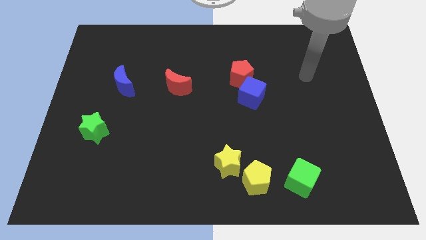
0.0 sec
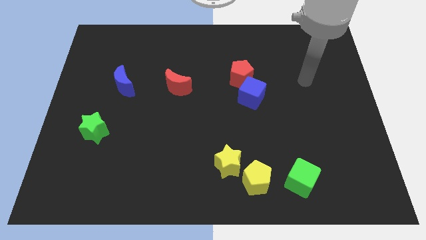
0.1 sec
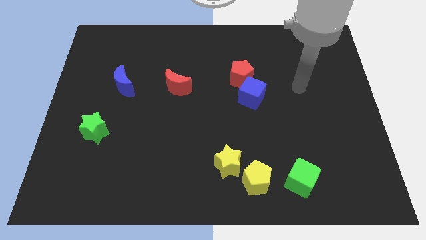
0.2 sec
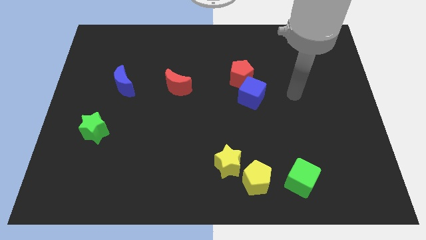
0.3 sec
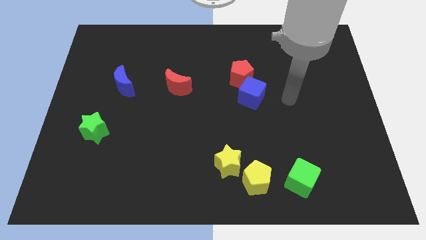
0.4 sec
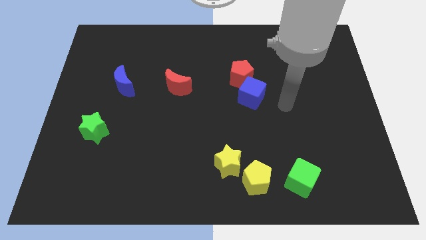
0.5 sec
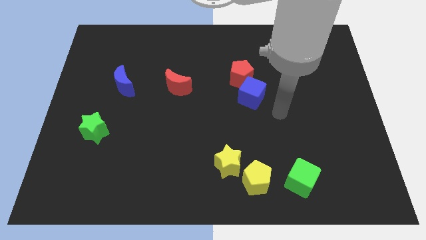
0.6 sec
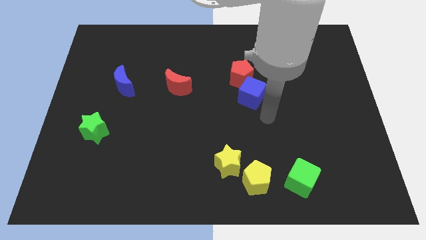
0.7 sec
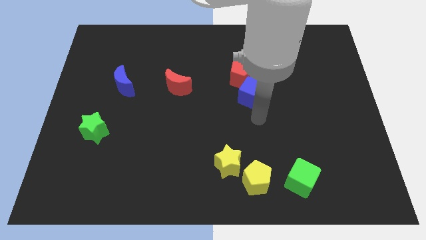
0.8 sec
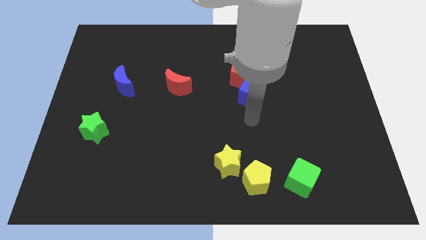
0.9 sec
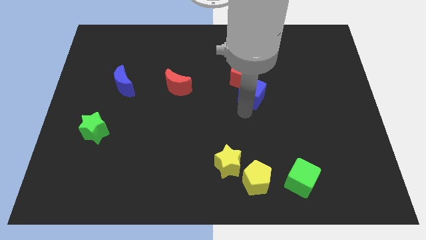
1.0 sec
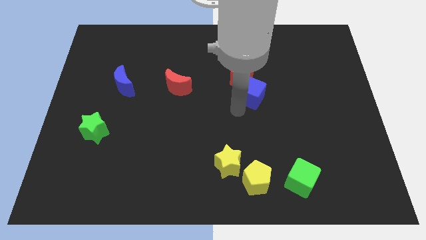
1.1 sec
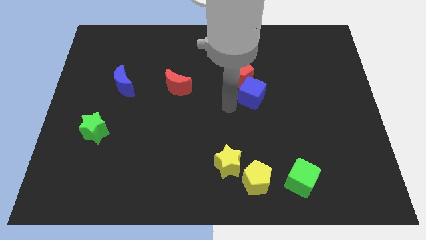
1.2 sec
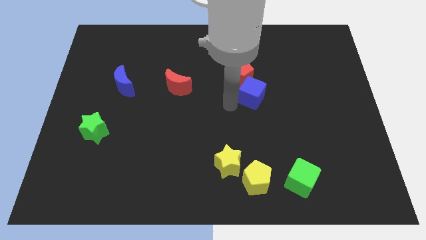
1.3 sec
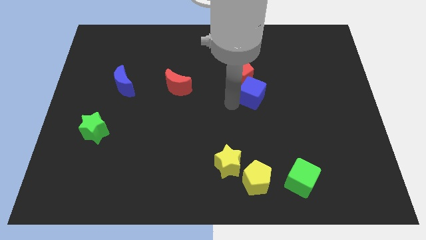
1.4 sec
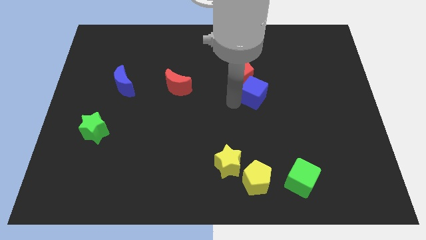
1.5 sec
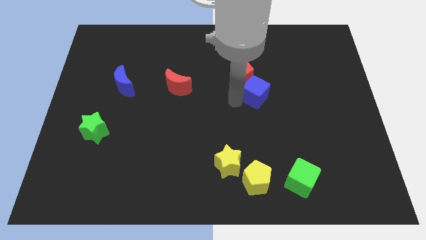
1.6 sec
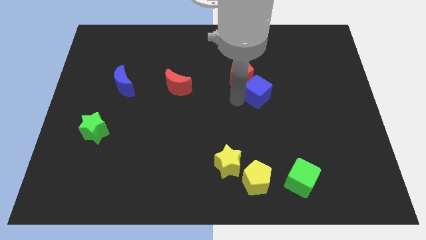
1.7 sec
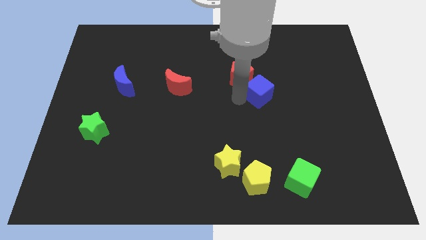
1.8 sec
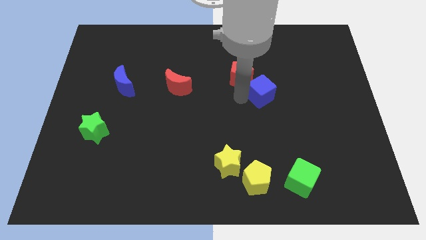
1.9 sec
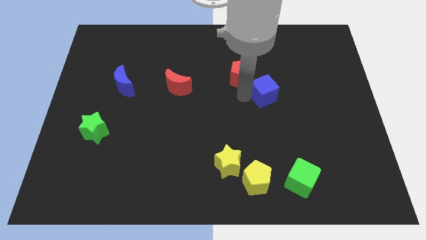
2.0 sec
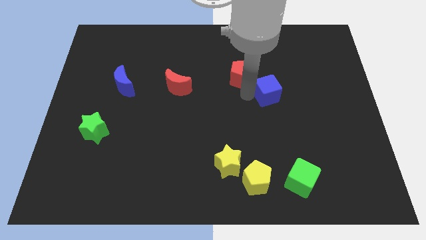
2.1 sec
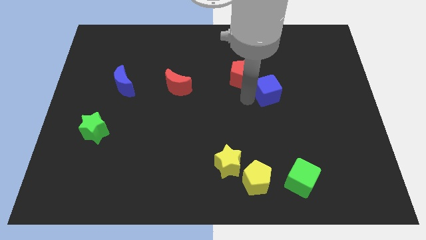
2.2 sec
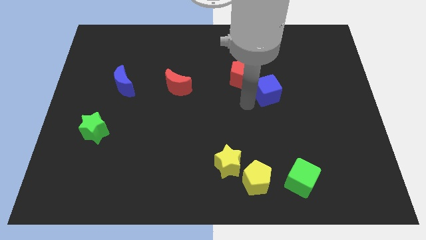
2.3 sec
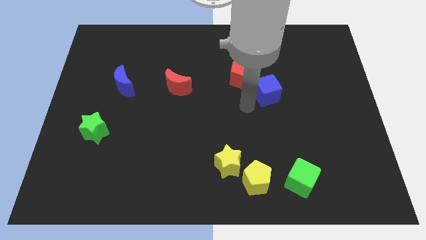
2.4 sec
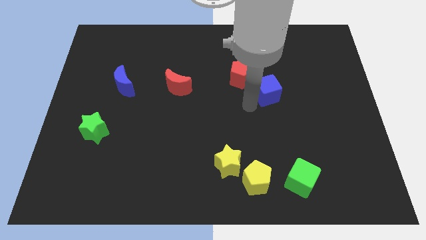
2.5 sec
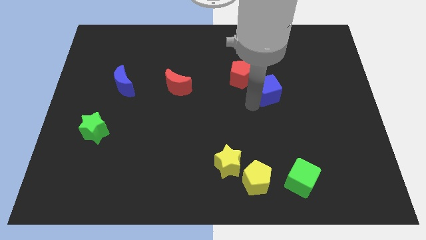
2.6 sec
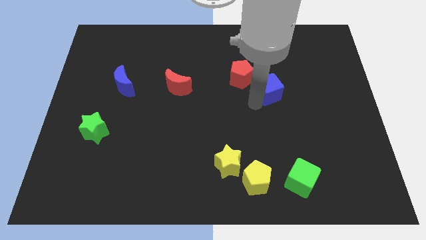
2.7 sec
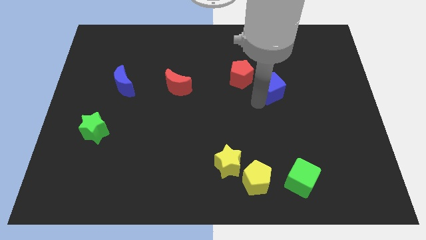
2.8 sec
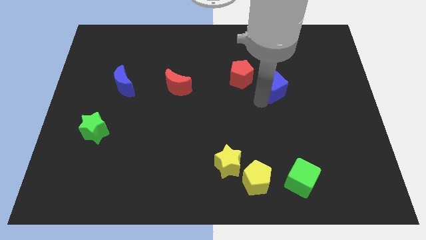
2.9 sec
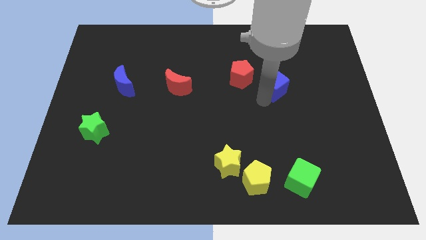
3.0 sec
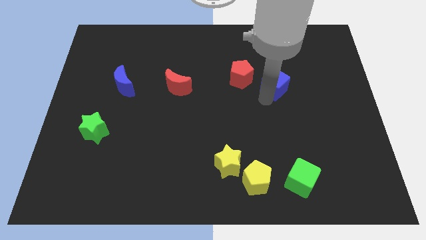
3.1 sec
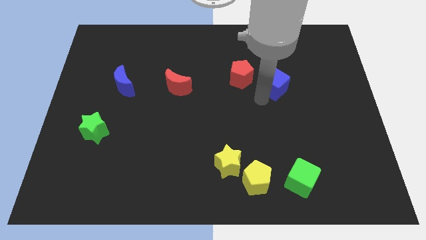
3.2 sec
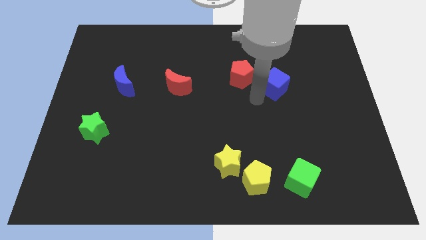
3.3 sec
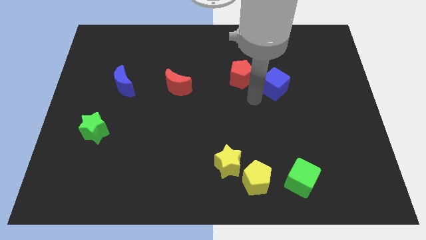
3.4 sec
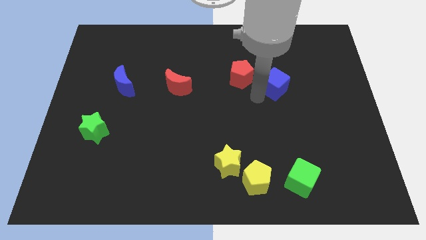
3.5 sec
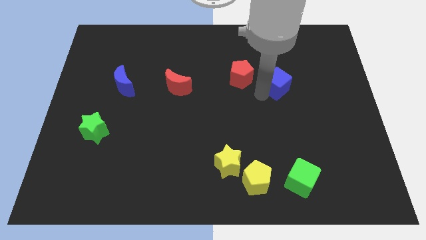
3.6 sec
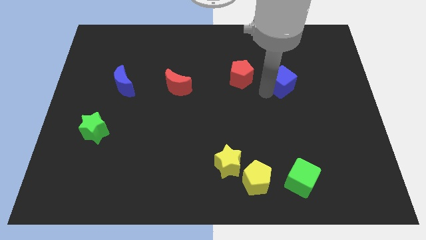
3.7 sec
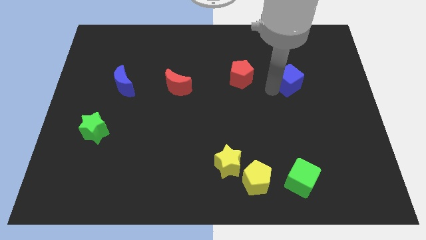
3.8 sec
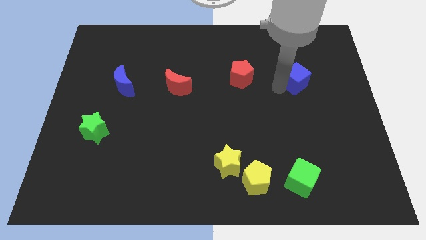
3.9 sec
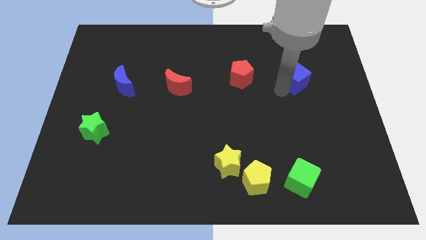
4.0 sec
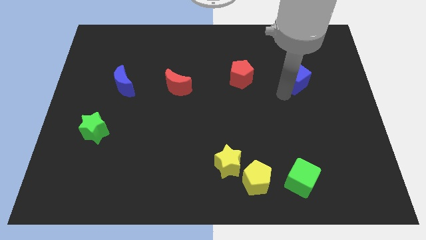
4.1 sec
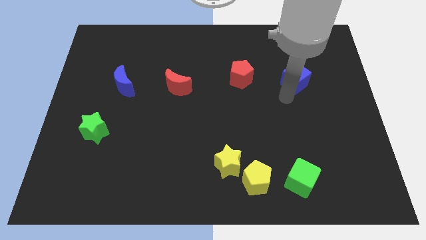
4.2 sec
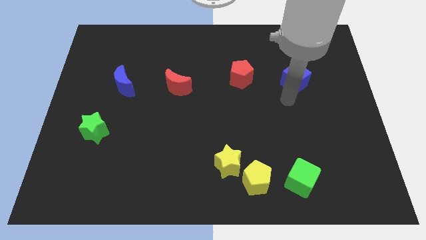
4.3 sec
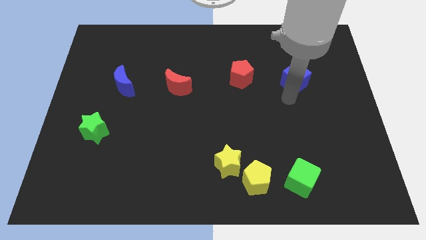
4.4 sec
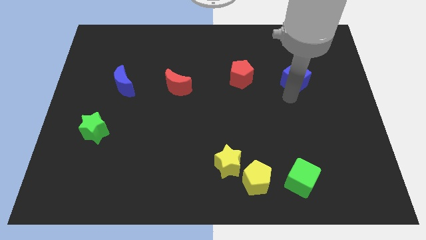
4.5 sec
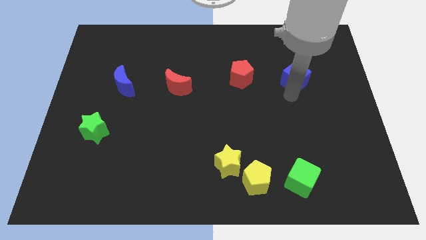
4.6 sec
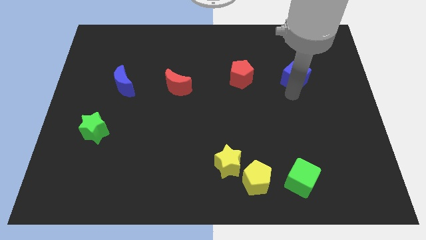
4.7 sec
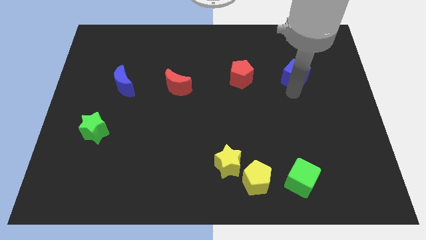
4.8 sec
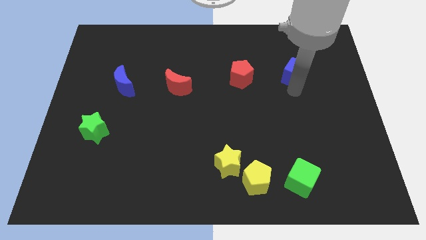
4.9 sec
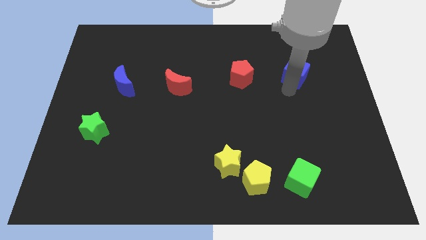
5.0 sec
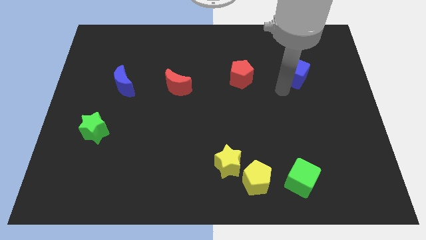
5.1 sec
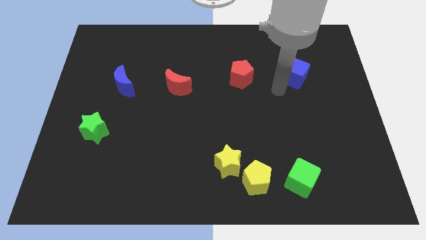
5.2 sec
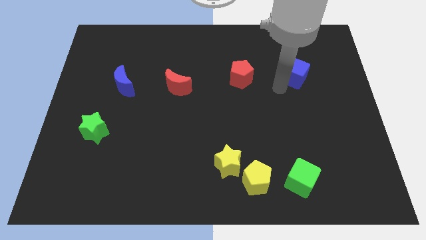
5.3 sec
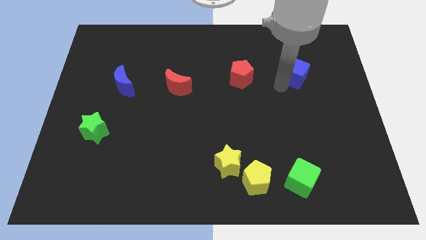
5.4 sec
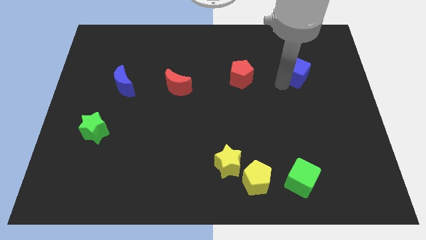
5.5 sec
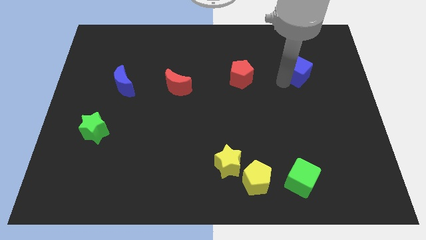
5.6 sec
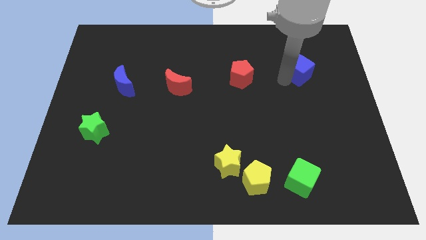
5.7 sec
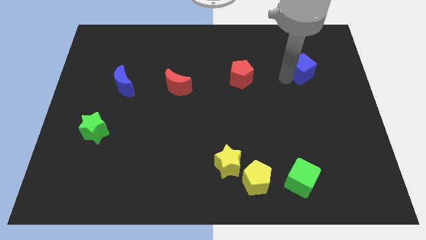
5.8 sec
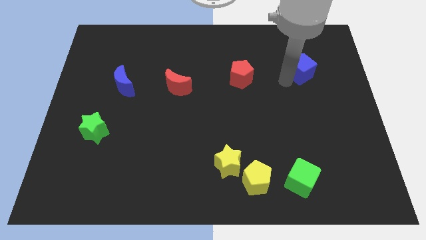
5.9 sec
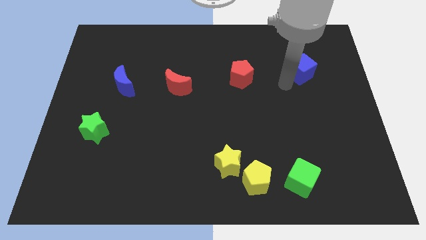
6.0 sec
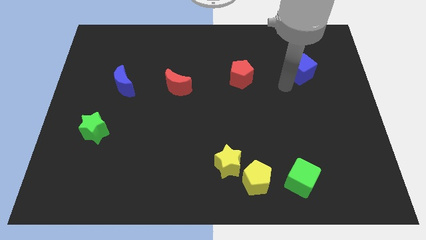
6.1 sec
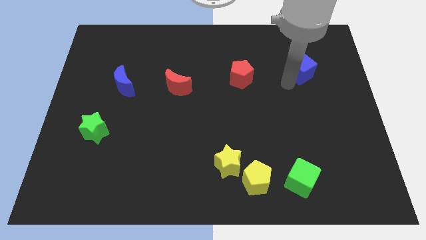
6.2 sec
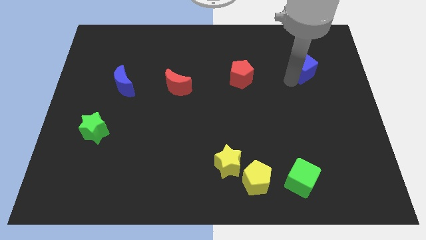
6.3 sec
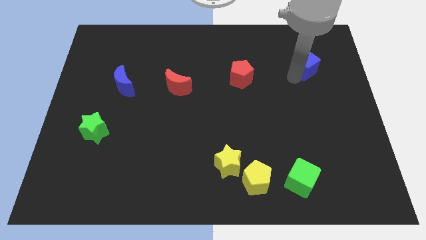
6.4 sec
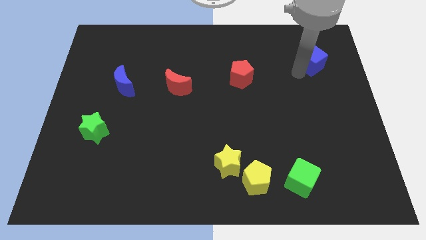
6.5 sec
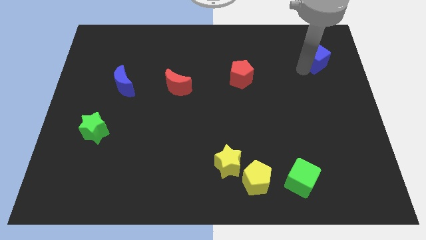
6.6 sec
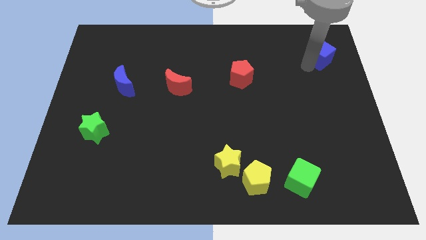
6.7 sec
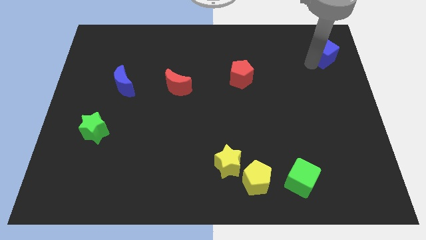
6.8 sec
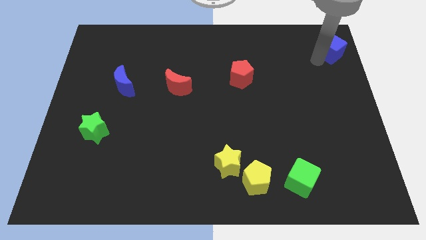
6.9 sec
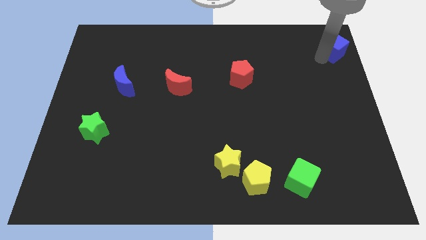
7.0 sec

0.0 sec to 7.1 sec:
push the blue cube to the top right corner
